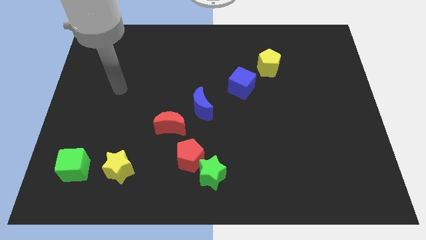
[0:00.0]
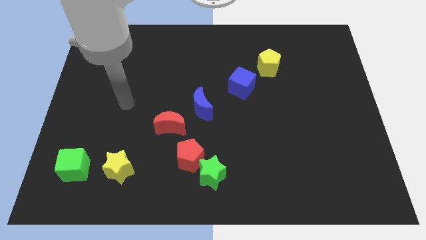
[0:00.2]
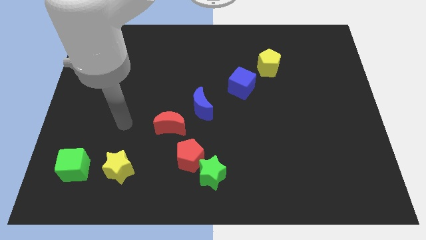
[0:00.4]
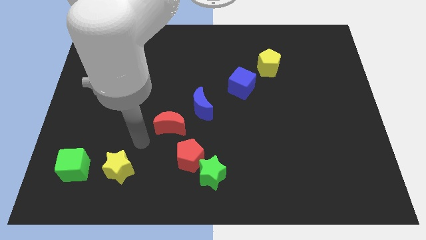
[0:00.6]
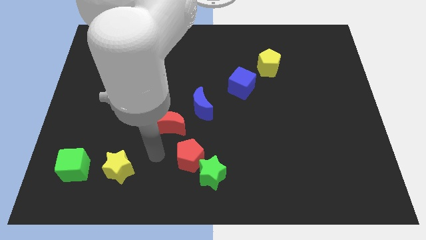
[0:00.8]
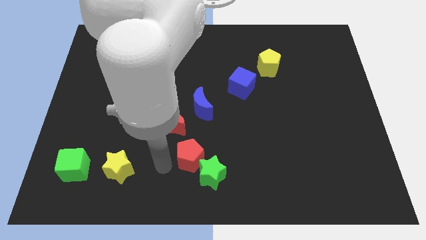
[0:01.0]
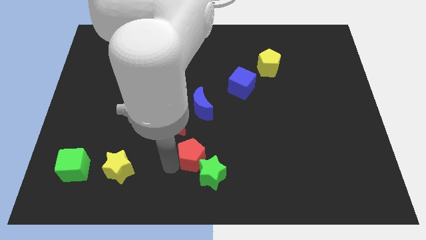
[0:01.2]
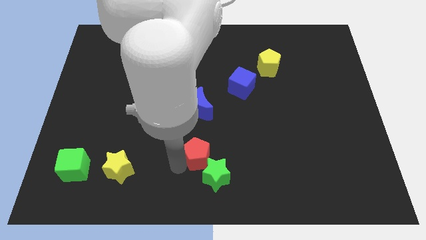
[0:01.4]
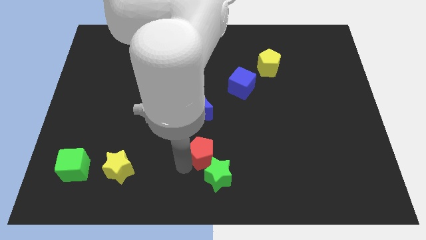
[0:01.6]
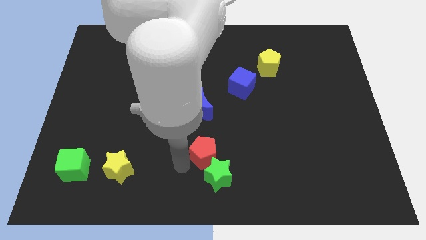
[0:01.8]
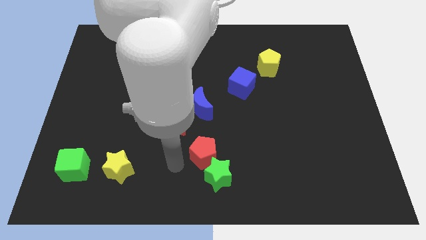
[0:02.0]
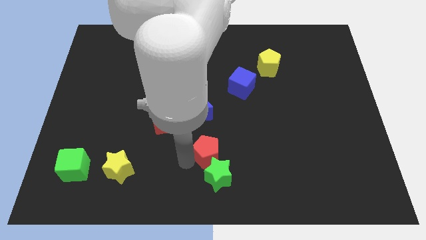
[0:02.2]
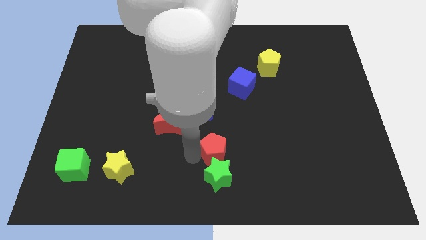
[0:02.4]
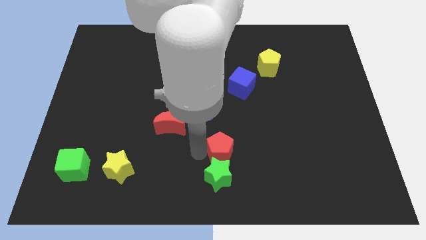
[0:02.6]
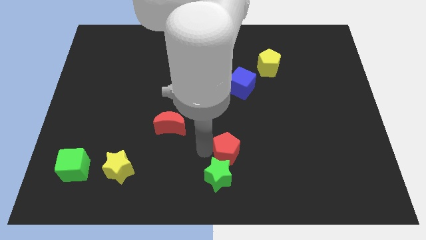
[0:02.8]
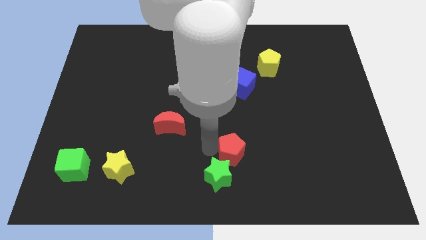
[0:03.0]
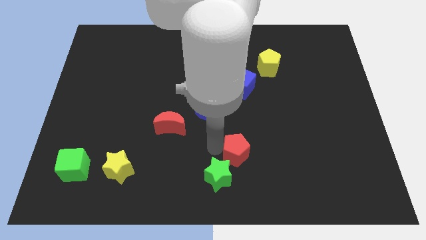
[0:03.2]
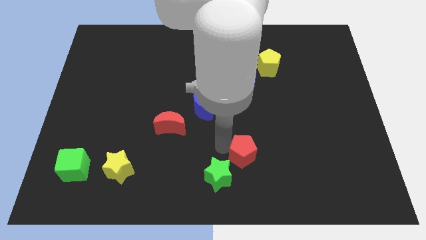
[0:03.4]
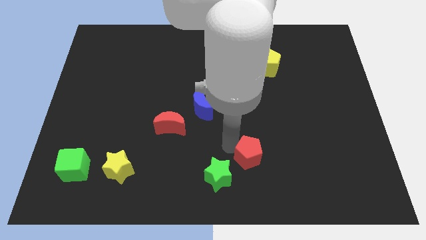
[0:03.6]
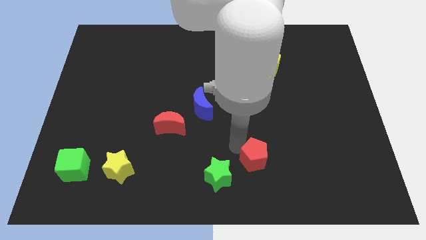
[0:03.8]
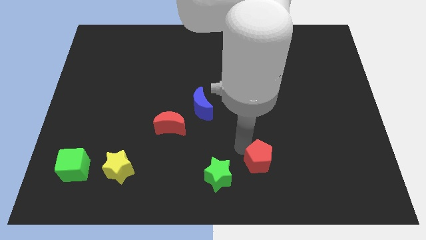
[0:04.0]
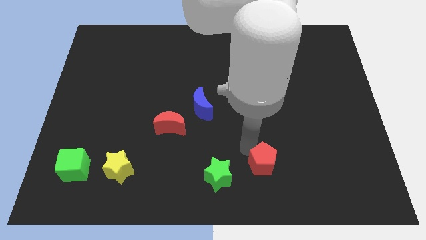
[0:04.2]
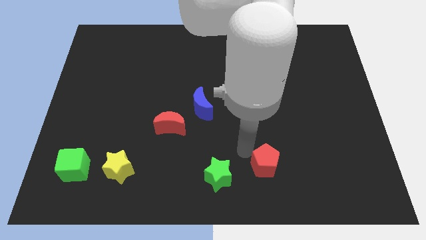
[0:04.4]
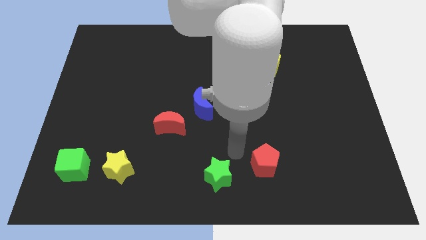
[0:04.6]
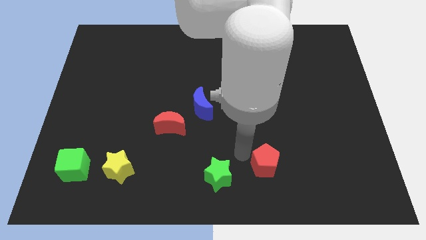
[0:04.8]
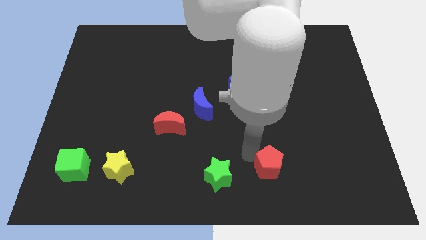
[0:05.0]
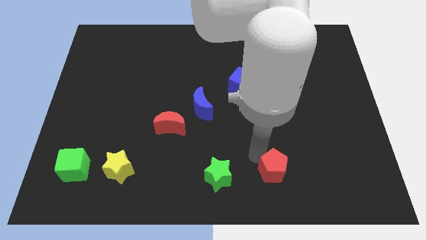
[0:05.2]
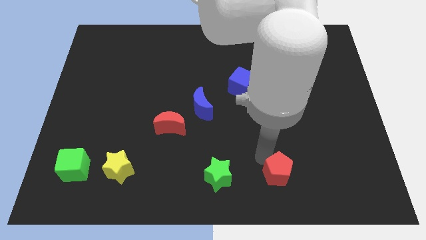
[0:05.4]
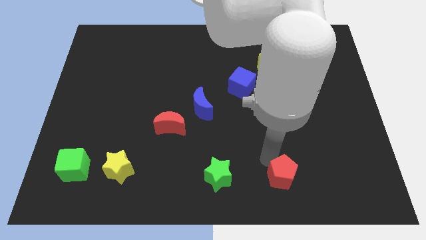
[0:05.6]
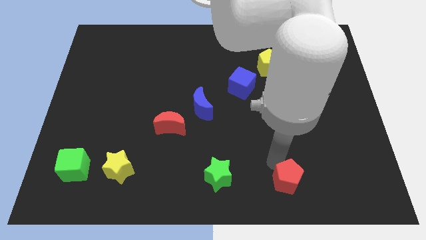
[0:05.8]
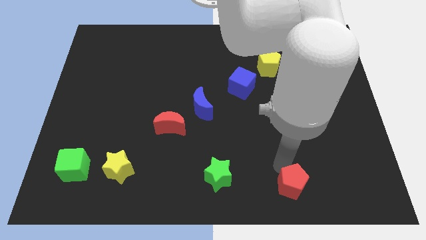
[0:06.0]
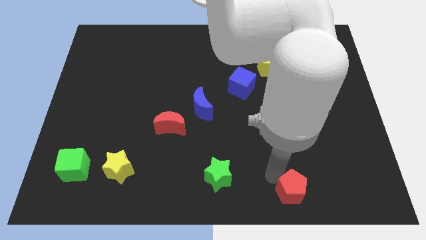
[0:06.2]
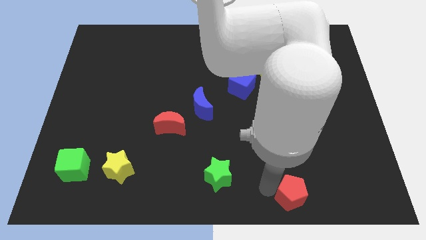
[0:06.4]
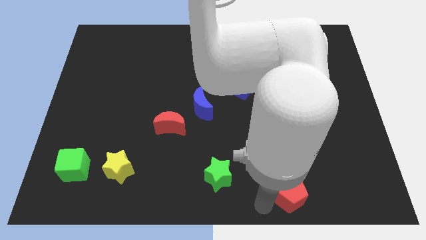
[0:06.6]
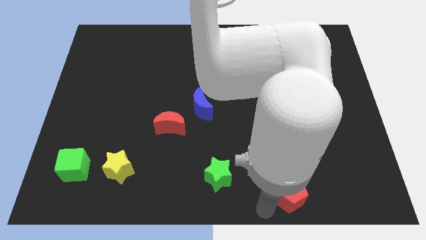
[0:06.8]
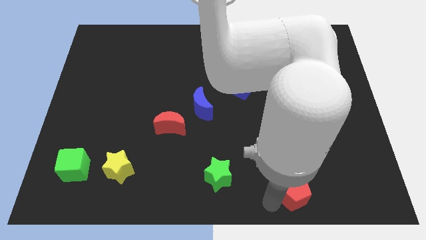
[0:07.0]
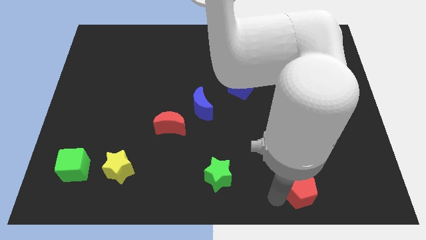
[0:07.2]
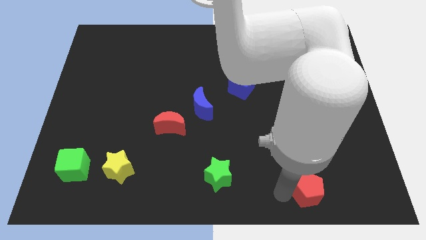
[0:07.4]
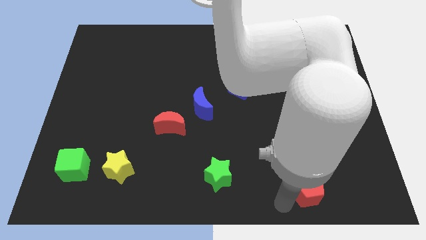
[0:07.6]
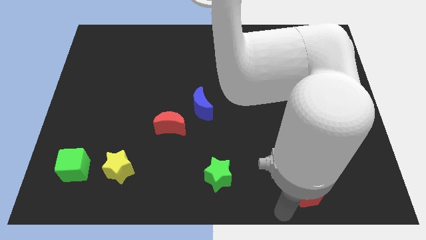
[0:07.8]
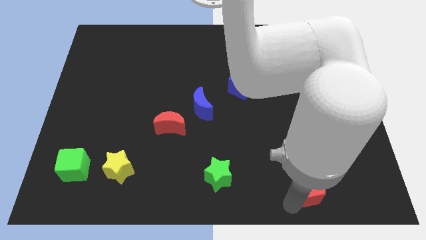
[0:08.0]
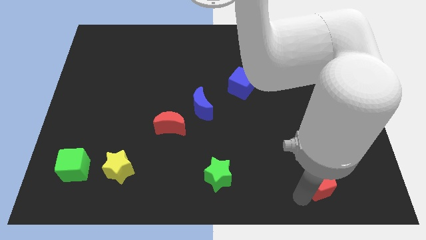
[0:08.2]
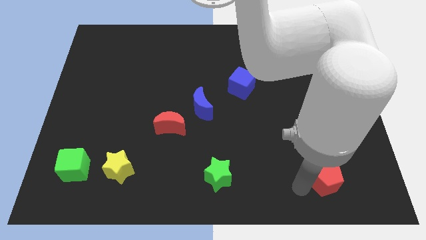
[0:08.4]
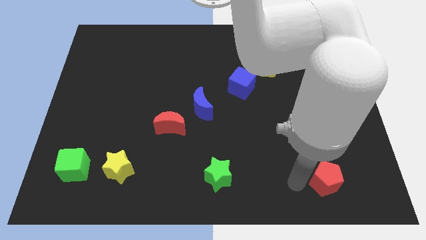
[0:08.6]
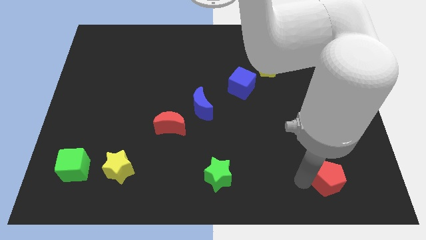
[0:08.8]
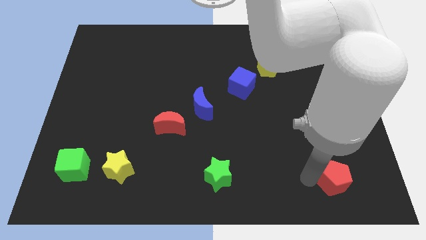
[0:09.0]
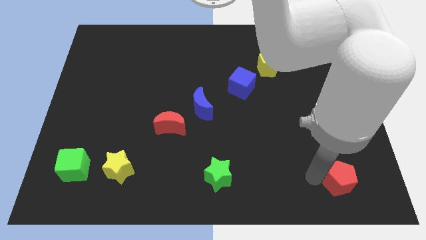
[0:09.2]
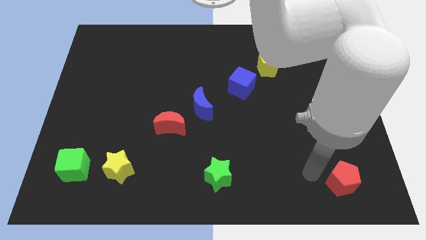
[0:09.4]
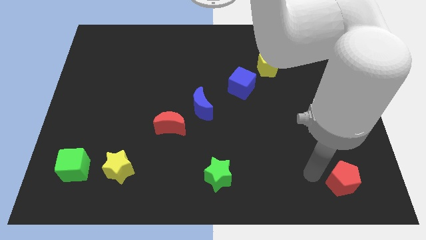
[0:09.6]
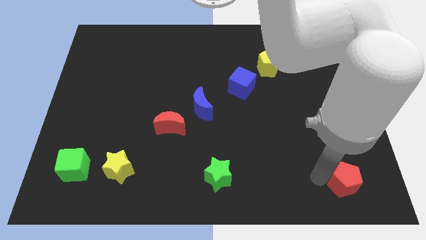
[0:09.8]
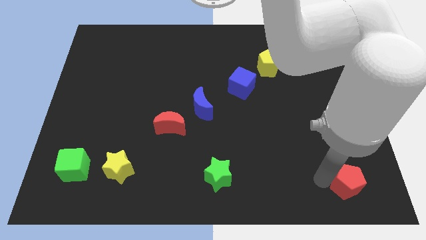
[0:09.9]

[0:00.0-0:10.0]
slide the red pentagon to the bottom right of the board
